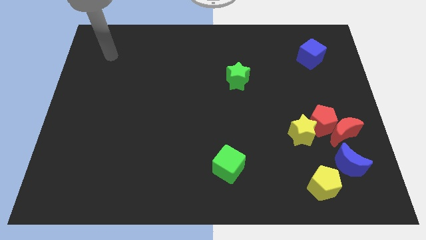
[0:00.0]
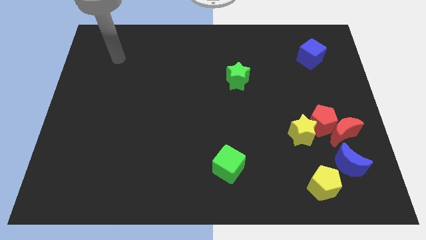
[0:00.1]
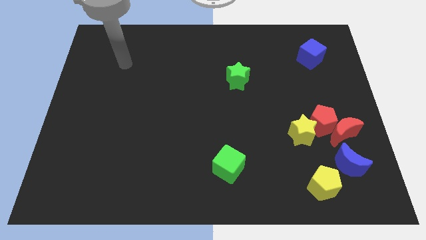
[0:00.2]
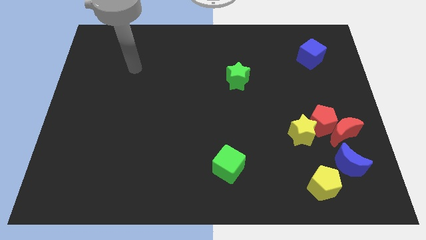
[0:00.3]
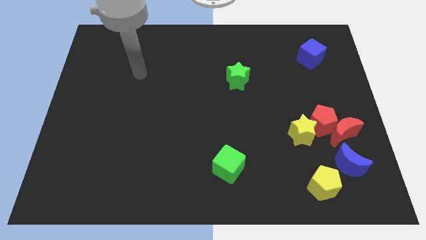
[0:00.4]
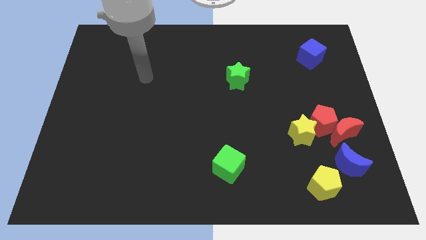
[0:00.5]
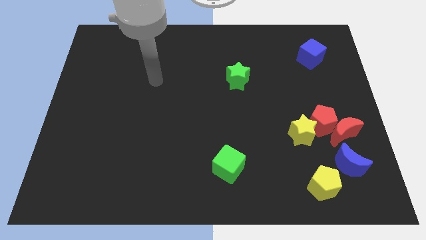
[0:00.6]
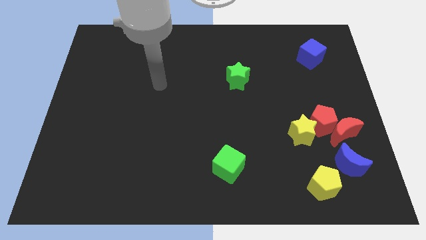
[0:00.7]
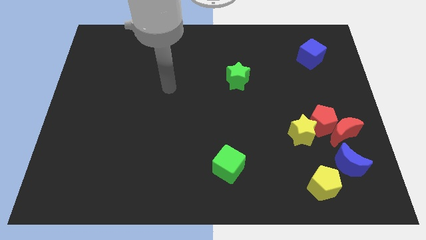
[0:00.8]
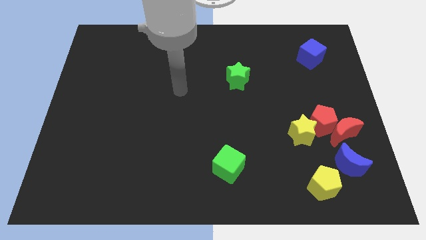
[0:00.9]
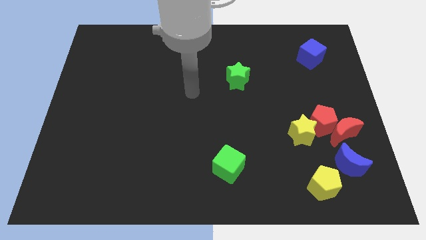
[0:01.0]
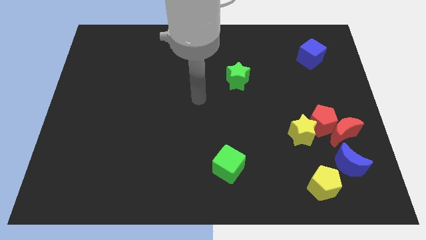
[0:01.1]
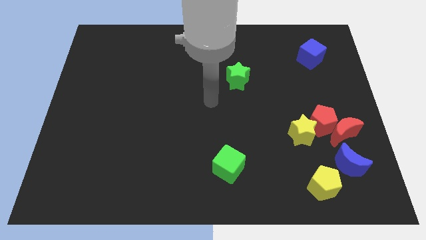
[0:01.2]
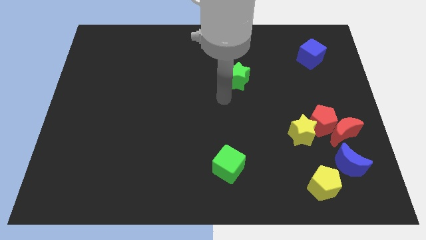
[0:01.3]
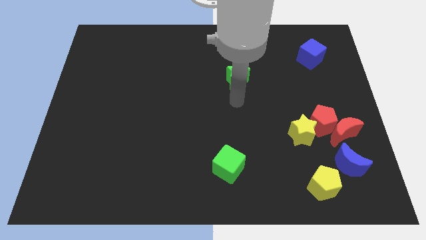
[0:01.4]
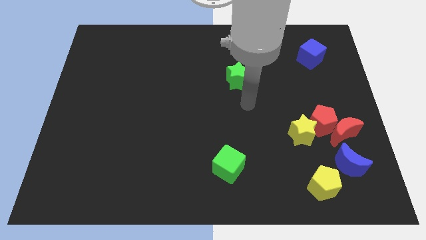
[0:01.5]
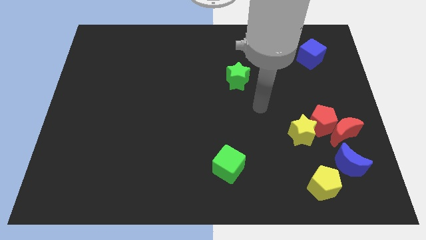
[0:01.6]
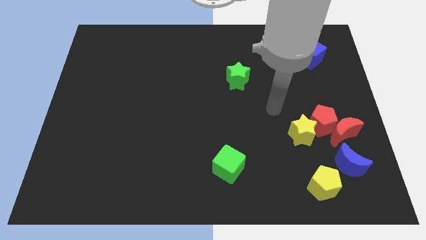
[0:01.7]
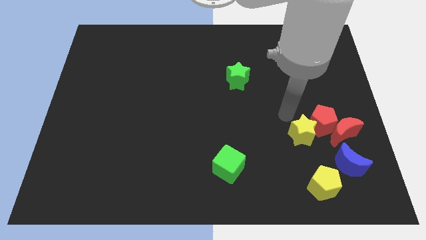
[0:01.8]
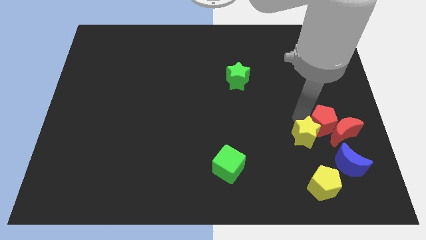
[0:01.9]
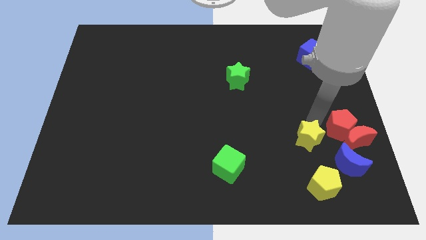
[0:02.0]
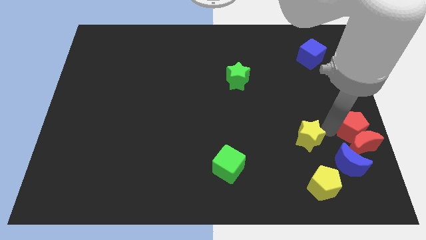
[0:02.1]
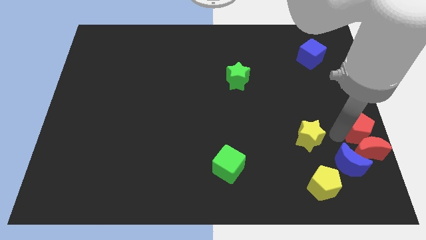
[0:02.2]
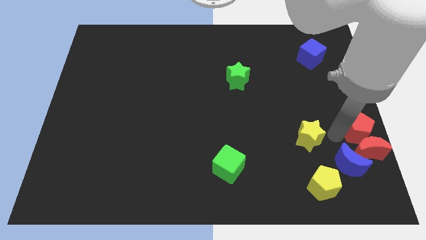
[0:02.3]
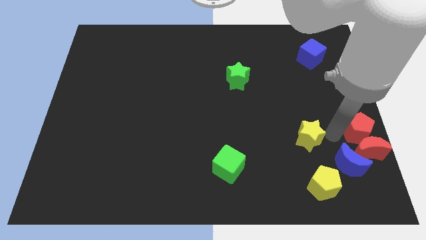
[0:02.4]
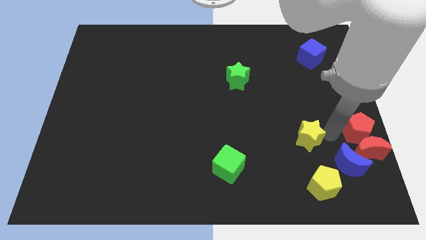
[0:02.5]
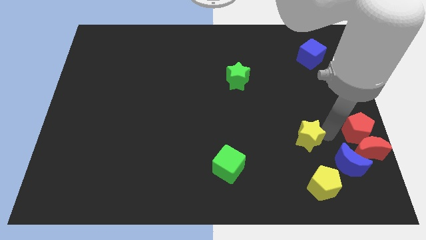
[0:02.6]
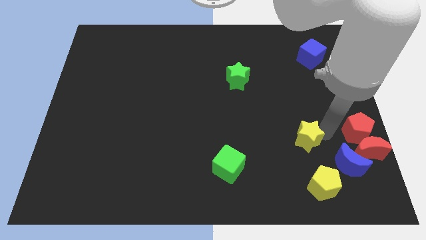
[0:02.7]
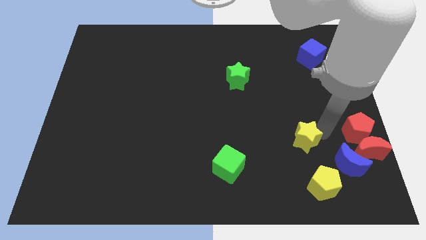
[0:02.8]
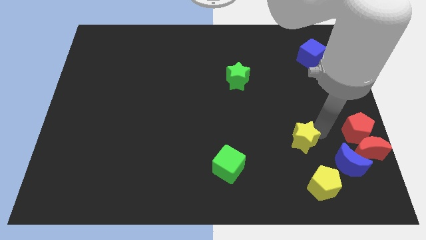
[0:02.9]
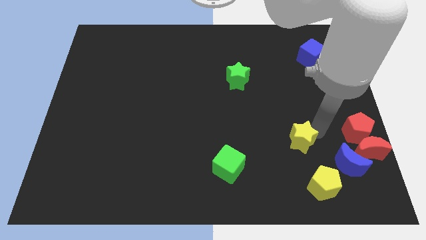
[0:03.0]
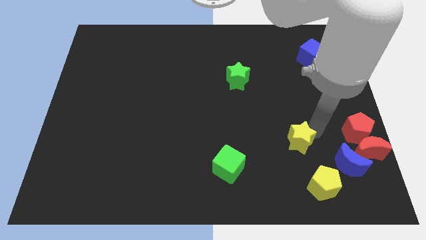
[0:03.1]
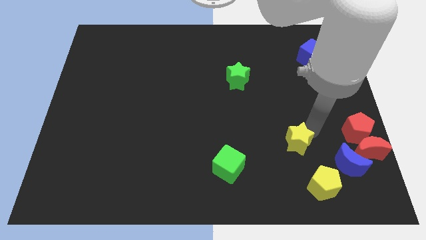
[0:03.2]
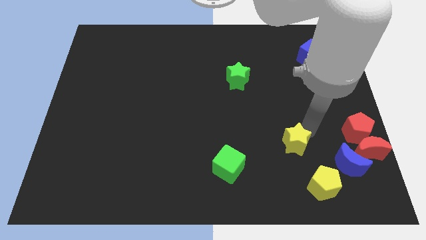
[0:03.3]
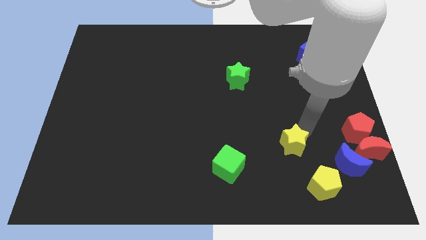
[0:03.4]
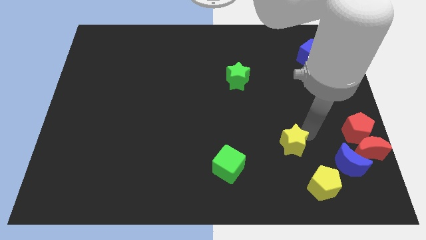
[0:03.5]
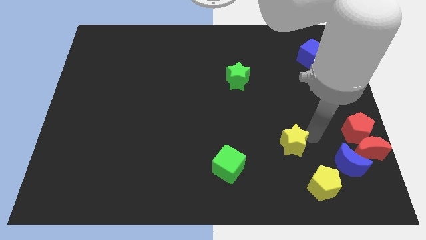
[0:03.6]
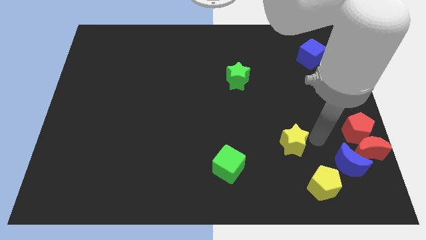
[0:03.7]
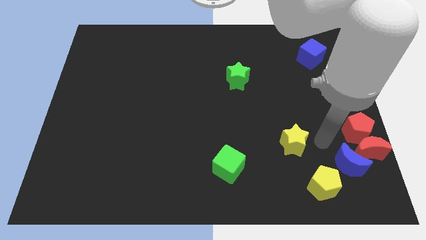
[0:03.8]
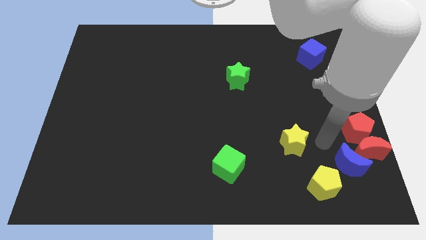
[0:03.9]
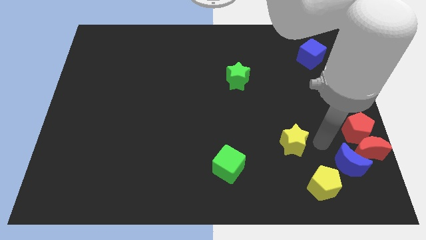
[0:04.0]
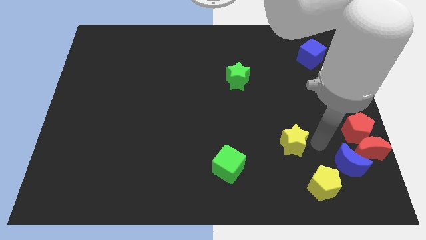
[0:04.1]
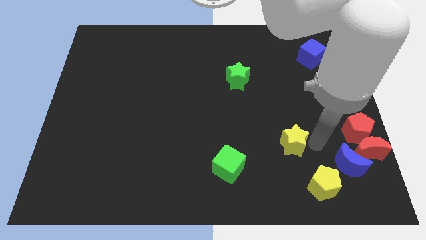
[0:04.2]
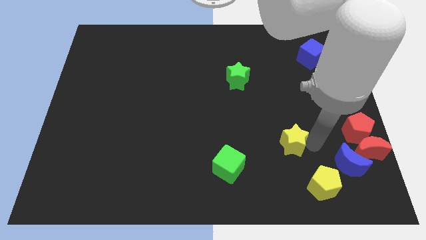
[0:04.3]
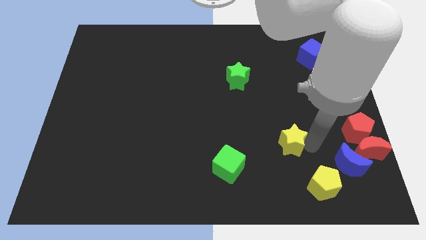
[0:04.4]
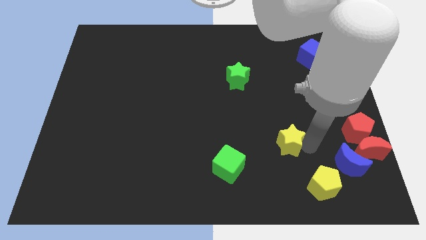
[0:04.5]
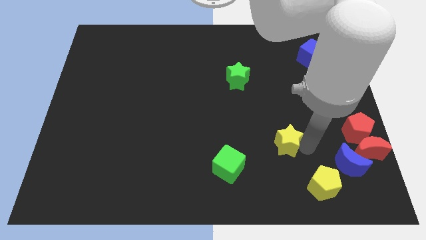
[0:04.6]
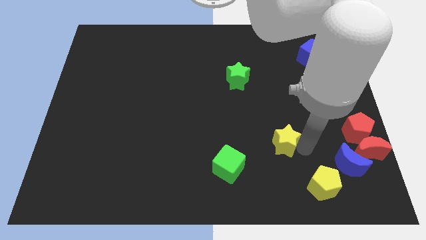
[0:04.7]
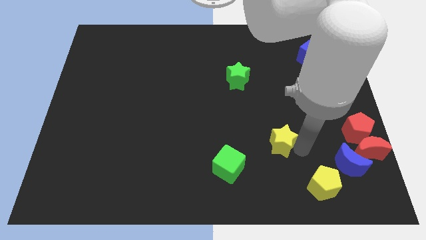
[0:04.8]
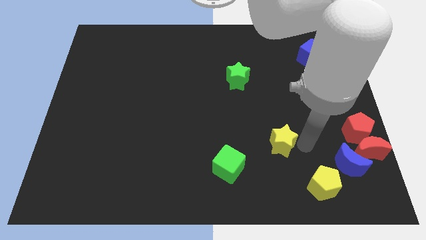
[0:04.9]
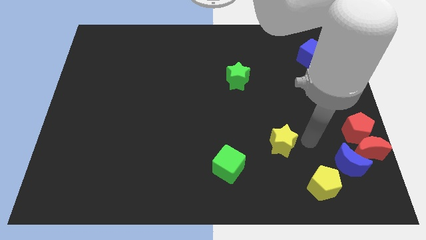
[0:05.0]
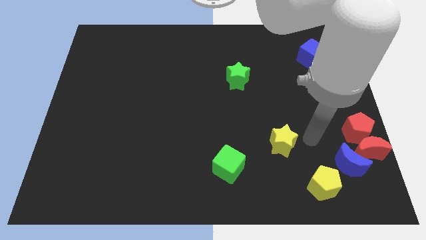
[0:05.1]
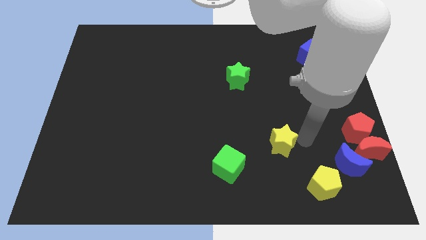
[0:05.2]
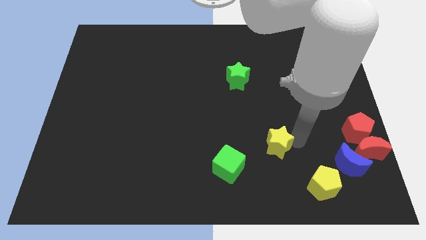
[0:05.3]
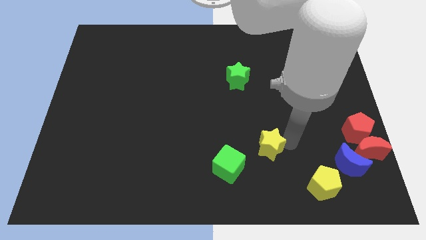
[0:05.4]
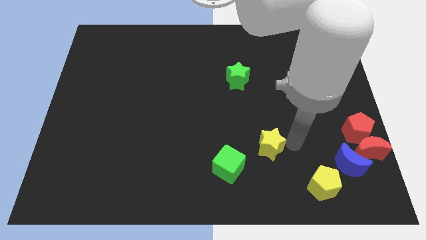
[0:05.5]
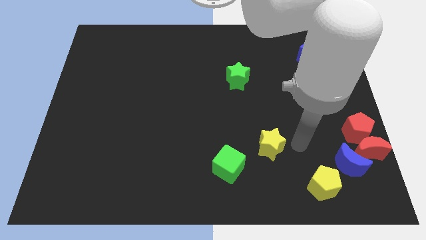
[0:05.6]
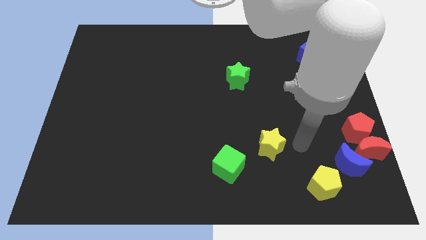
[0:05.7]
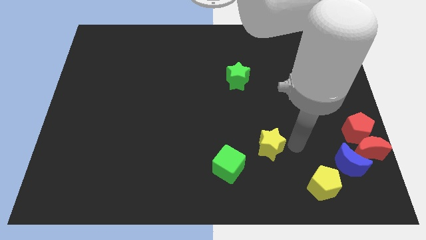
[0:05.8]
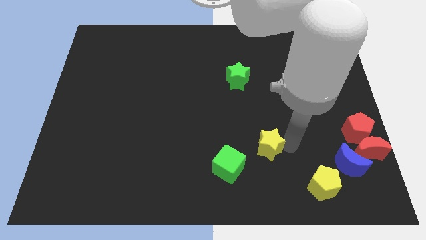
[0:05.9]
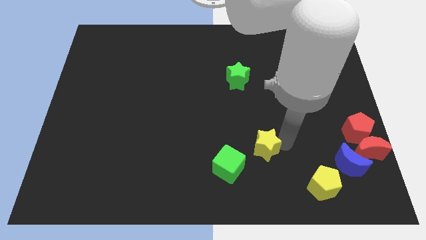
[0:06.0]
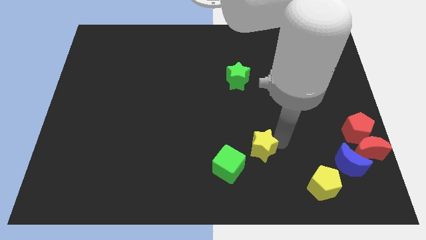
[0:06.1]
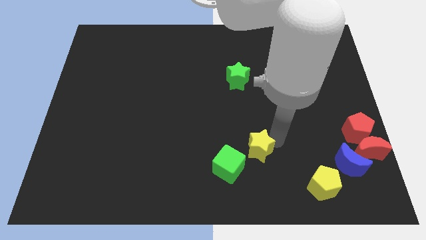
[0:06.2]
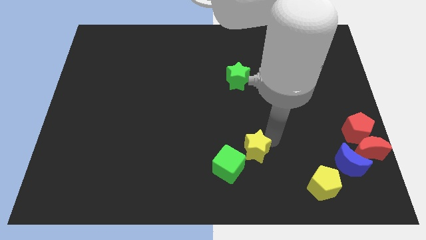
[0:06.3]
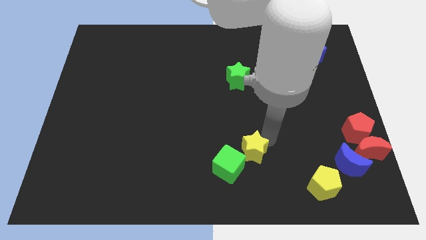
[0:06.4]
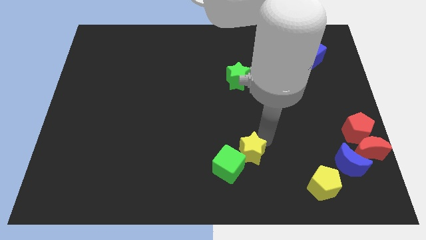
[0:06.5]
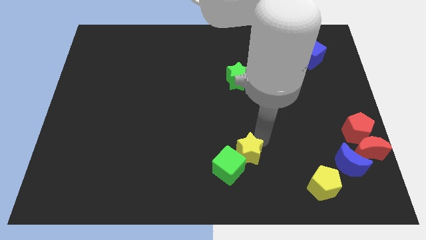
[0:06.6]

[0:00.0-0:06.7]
push the yellow star to the green cube
